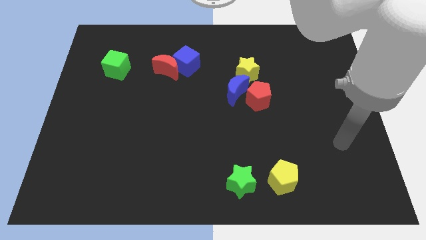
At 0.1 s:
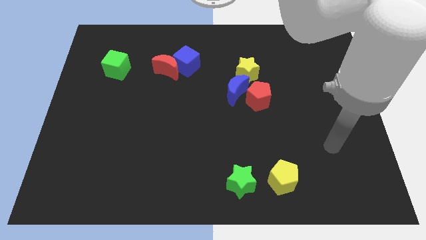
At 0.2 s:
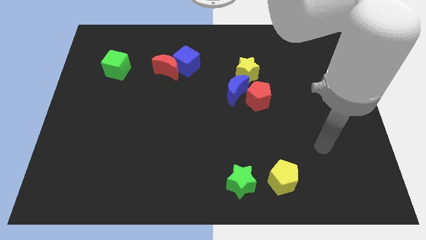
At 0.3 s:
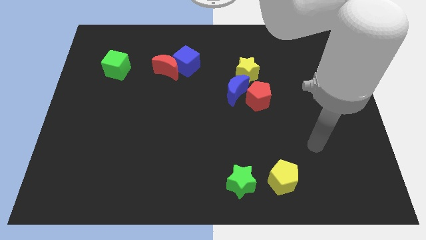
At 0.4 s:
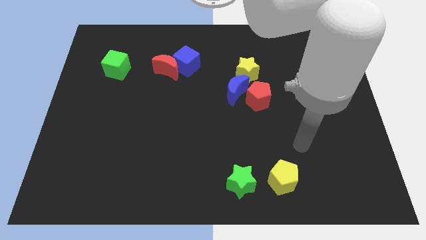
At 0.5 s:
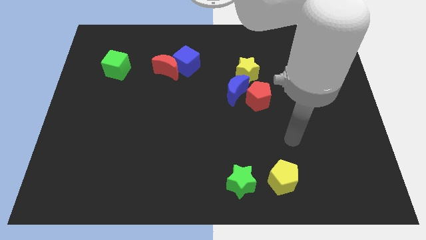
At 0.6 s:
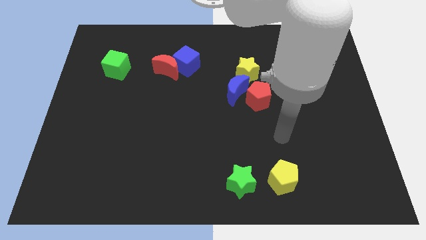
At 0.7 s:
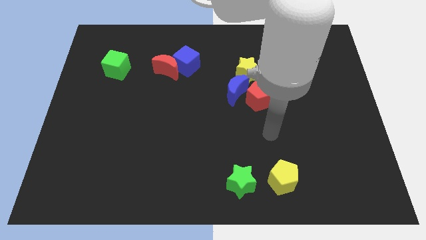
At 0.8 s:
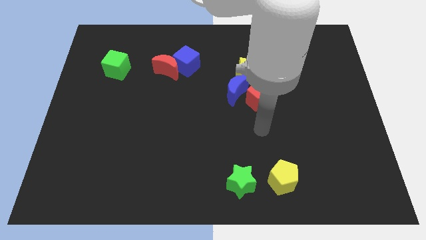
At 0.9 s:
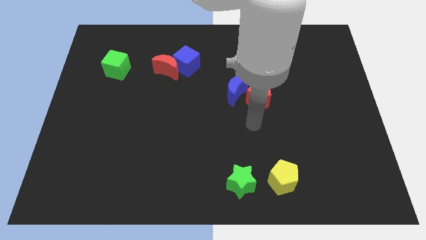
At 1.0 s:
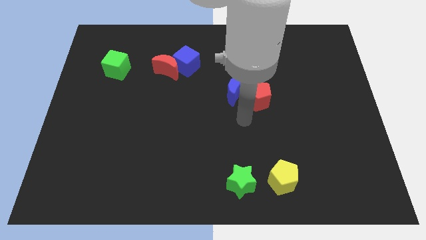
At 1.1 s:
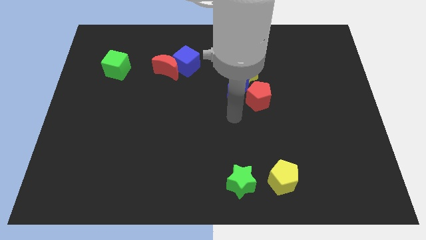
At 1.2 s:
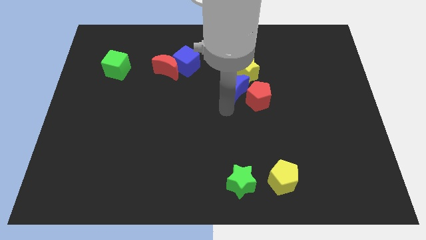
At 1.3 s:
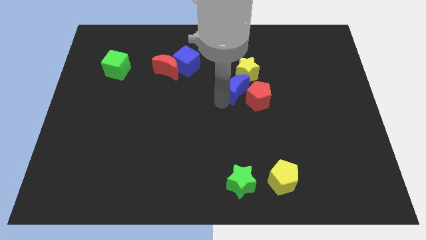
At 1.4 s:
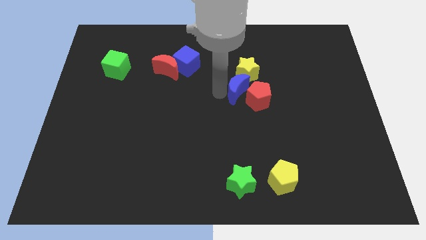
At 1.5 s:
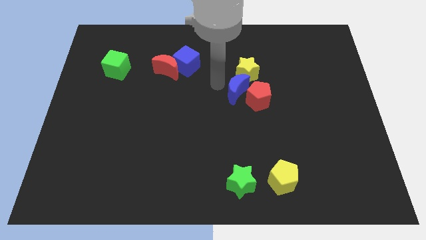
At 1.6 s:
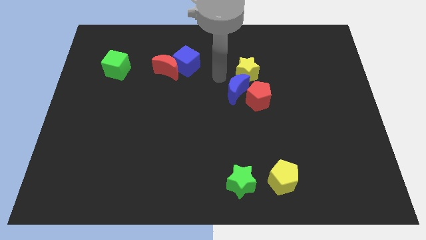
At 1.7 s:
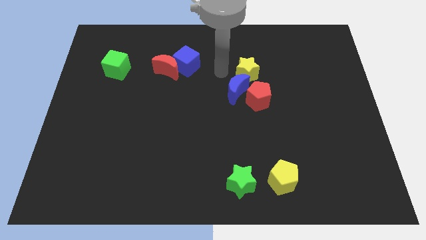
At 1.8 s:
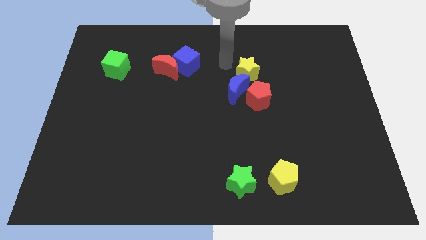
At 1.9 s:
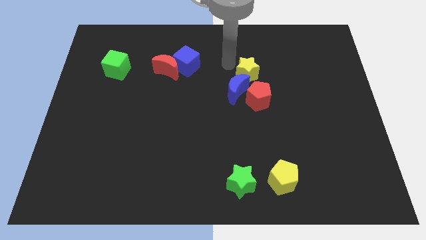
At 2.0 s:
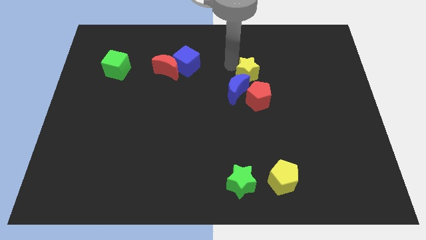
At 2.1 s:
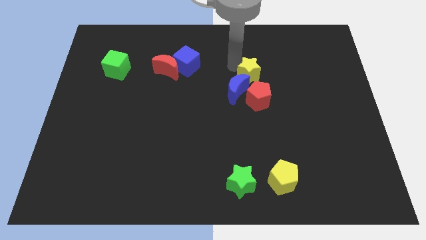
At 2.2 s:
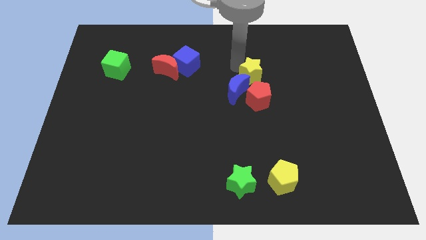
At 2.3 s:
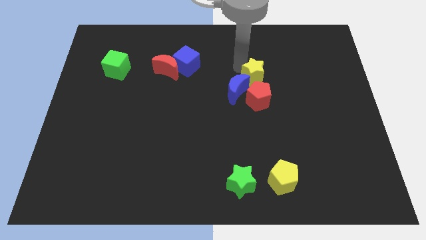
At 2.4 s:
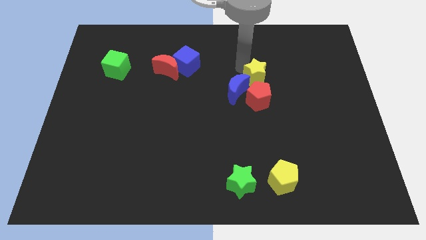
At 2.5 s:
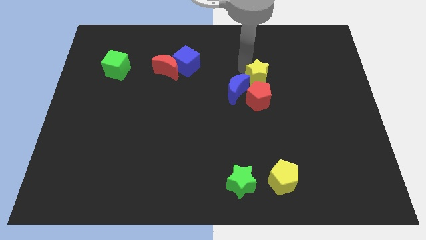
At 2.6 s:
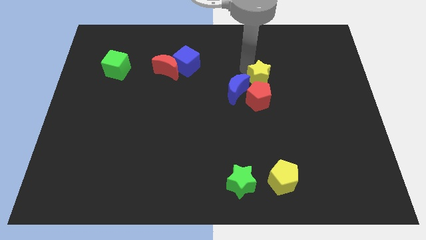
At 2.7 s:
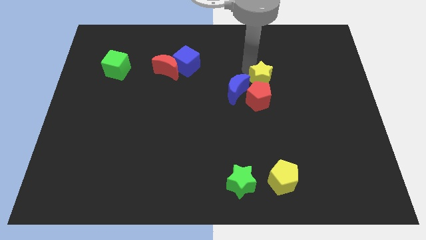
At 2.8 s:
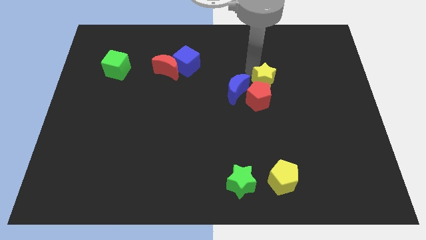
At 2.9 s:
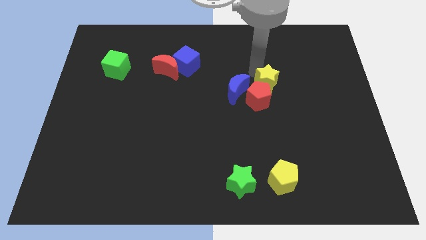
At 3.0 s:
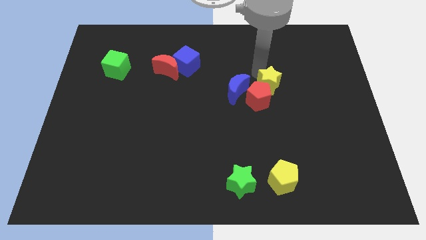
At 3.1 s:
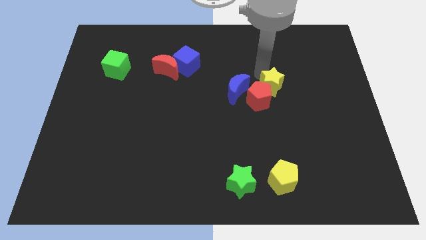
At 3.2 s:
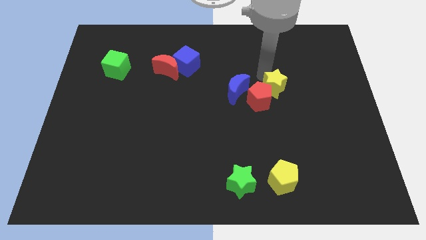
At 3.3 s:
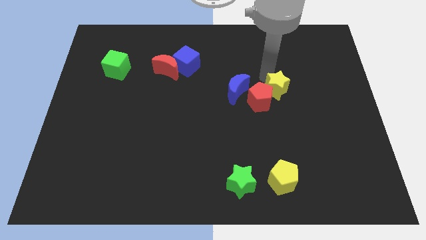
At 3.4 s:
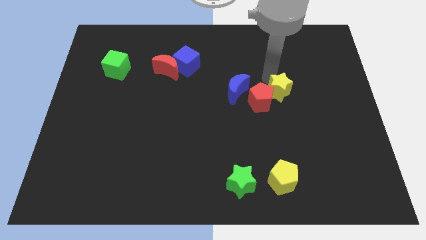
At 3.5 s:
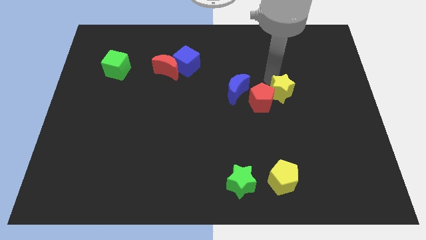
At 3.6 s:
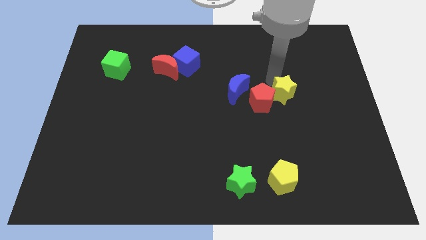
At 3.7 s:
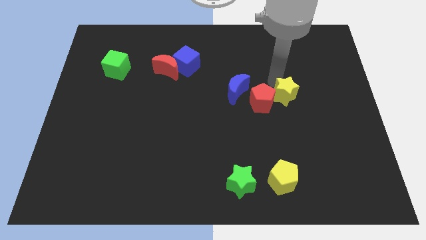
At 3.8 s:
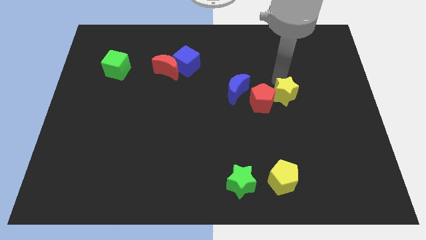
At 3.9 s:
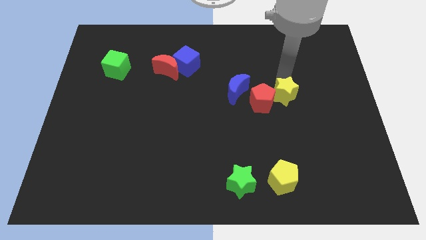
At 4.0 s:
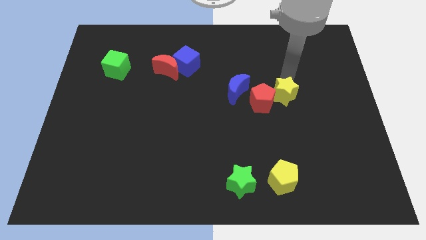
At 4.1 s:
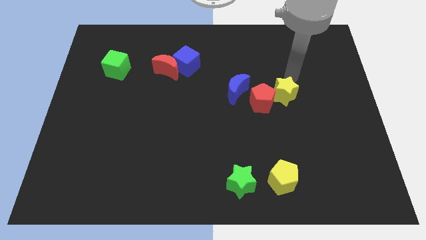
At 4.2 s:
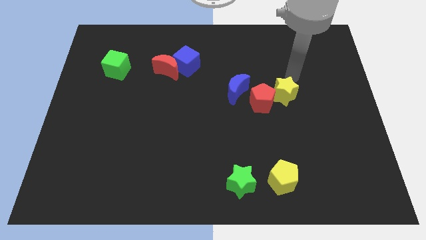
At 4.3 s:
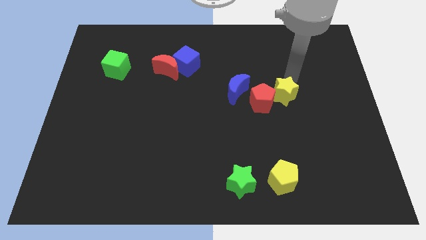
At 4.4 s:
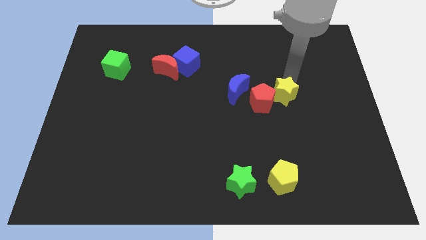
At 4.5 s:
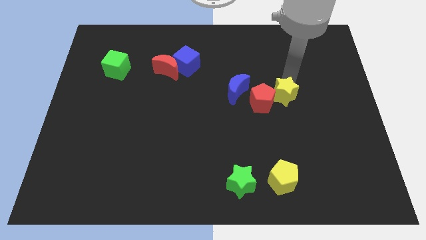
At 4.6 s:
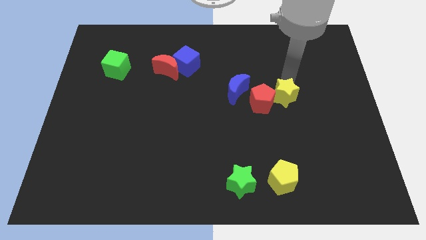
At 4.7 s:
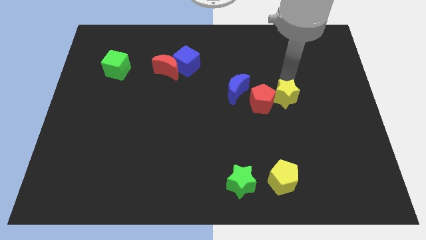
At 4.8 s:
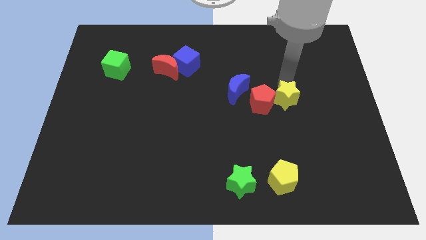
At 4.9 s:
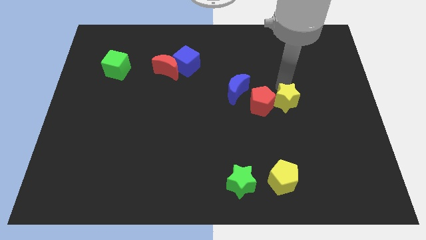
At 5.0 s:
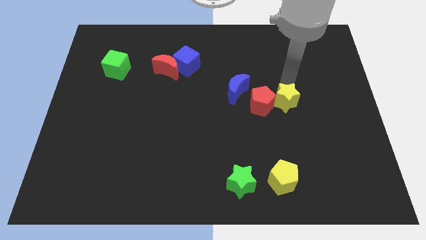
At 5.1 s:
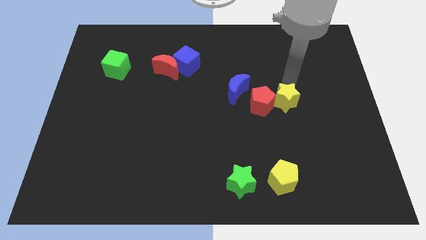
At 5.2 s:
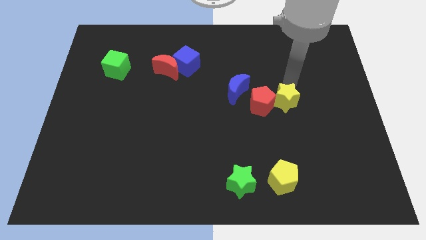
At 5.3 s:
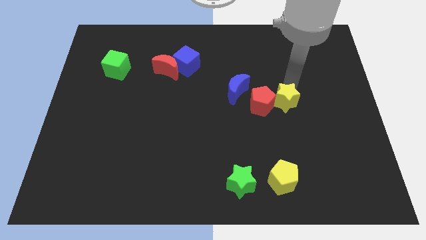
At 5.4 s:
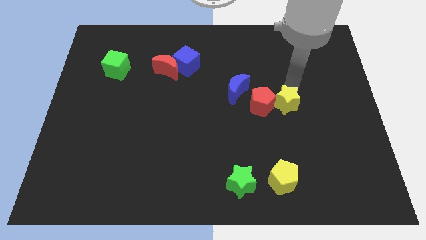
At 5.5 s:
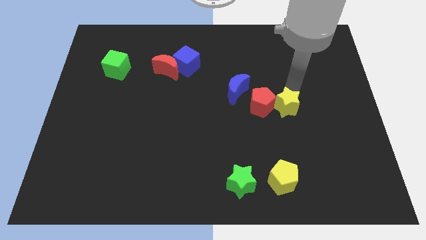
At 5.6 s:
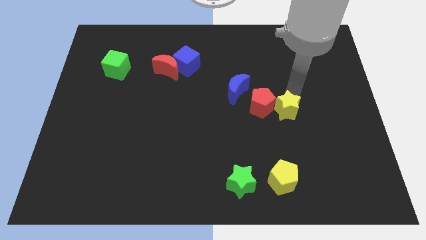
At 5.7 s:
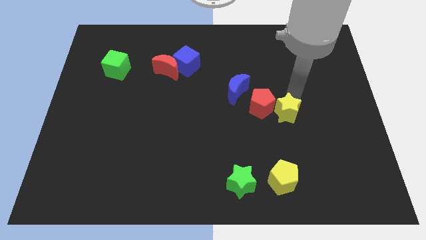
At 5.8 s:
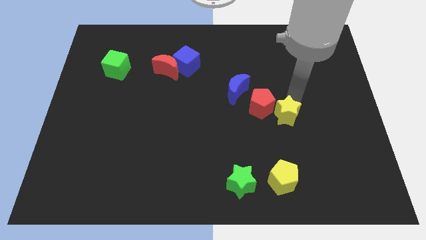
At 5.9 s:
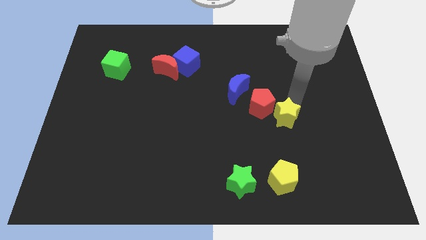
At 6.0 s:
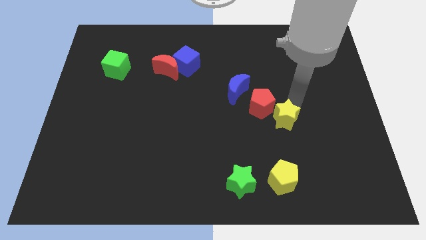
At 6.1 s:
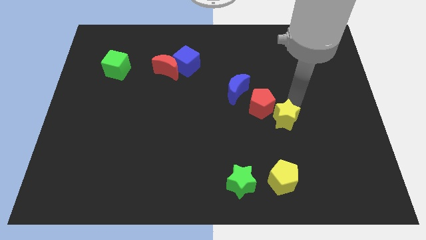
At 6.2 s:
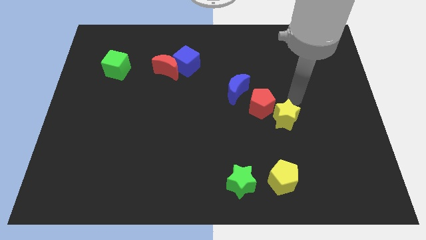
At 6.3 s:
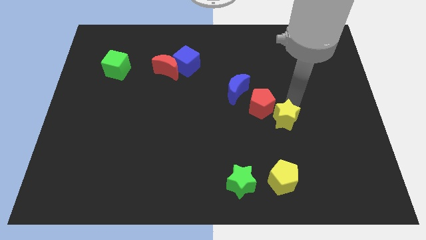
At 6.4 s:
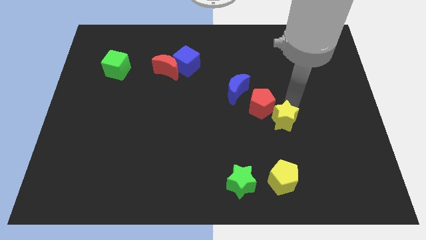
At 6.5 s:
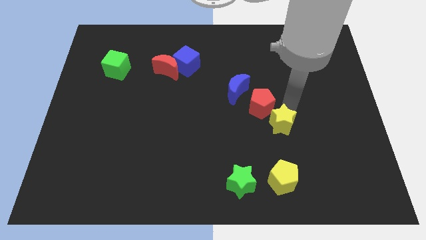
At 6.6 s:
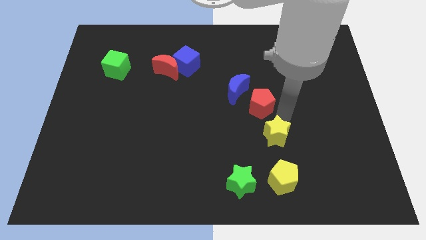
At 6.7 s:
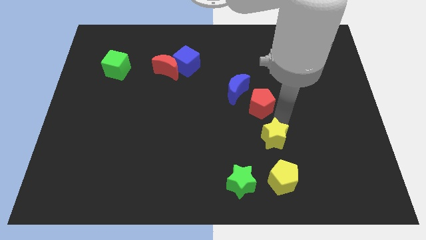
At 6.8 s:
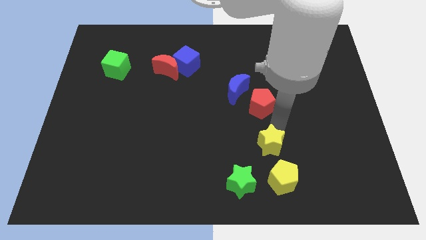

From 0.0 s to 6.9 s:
move the yellow star diagonally up and to the right of the green star

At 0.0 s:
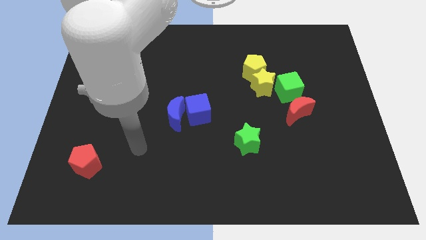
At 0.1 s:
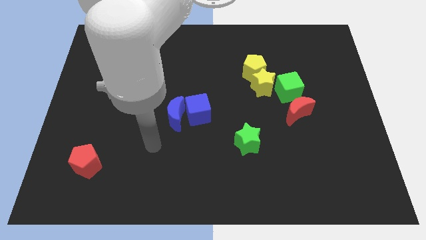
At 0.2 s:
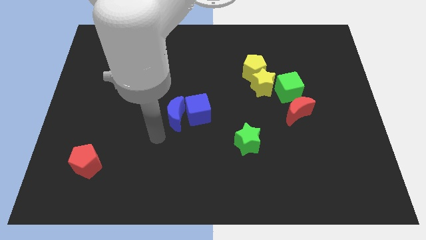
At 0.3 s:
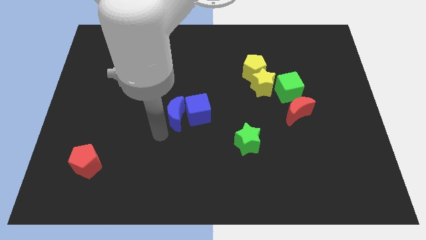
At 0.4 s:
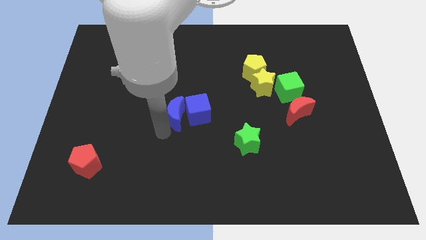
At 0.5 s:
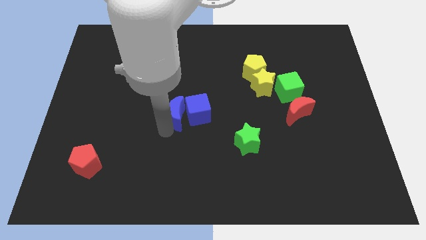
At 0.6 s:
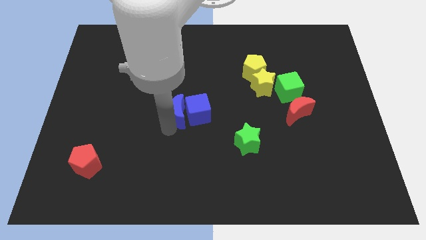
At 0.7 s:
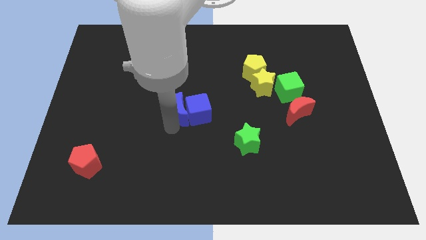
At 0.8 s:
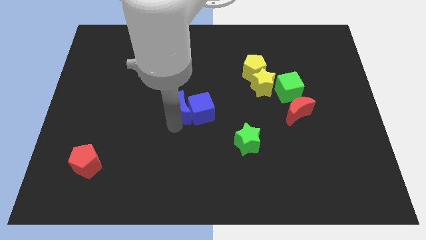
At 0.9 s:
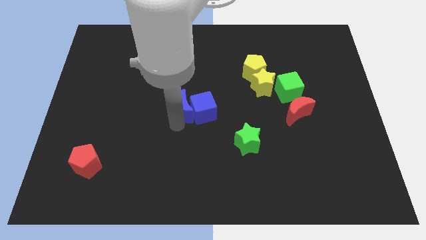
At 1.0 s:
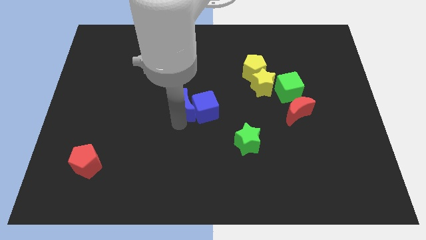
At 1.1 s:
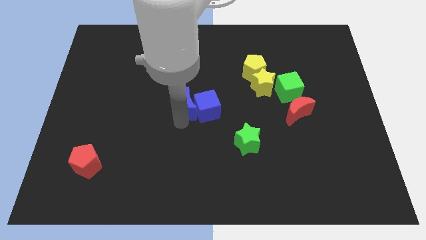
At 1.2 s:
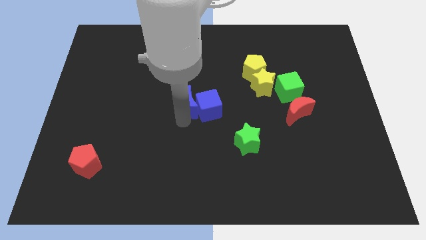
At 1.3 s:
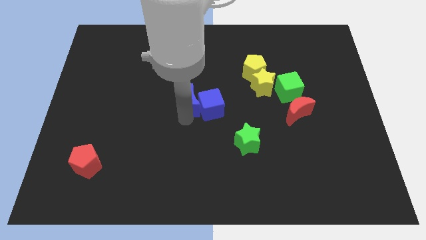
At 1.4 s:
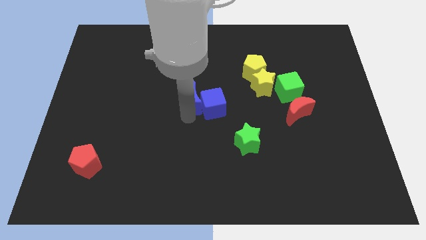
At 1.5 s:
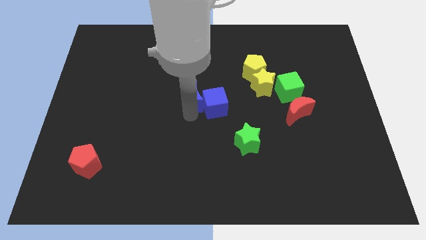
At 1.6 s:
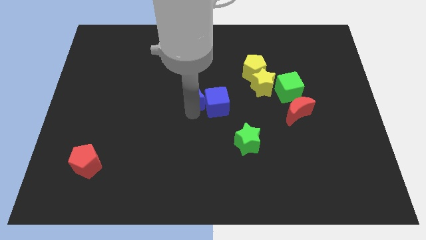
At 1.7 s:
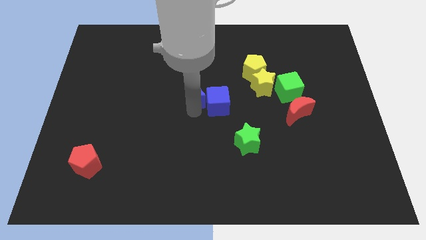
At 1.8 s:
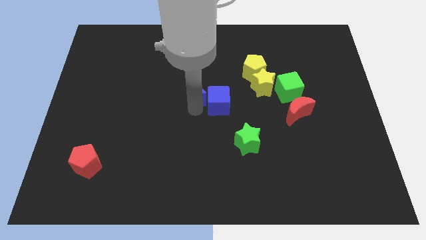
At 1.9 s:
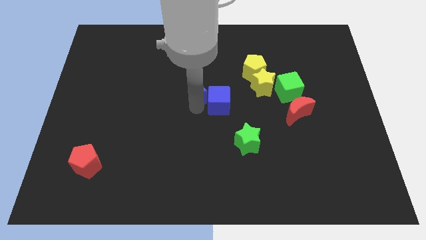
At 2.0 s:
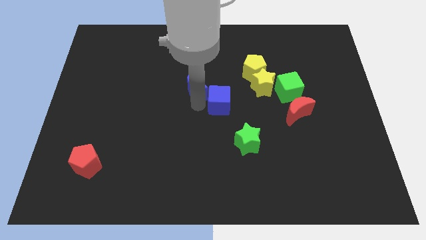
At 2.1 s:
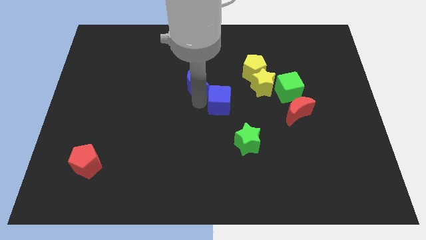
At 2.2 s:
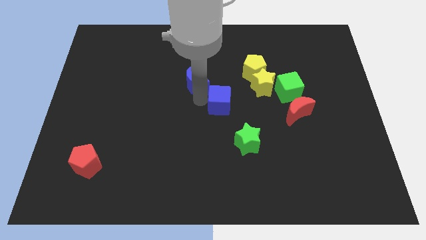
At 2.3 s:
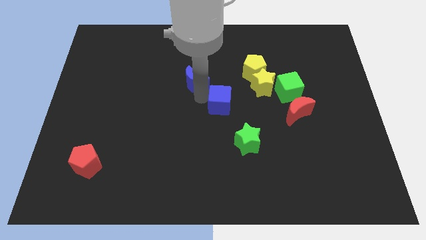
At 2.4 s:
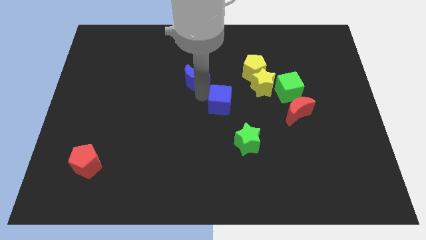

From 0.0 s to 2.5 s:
move the blue moon left of the yellow pentagon
